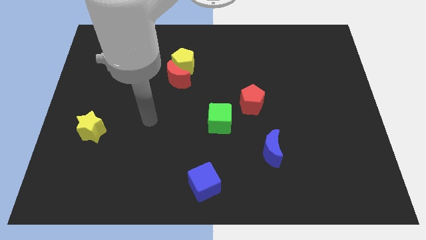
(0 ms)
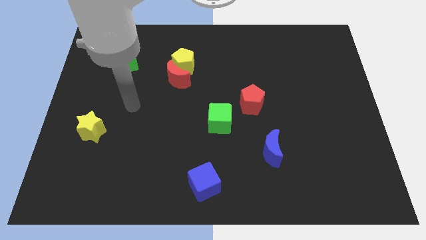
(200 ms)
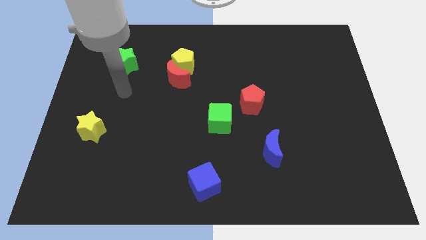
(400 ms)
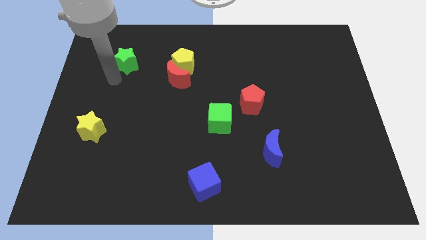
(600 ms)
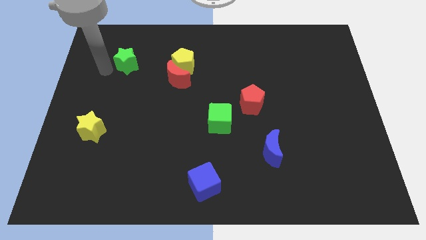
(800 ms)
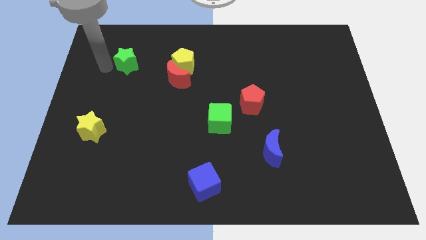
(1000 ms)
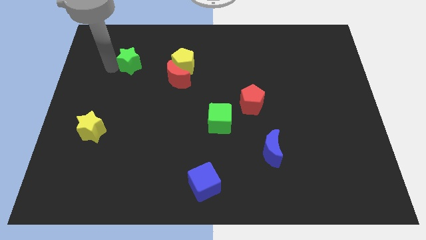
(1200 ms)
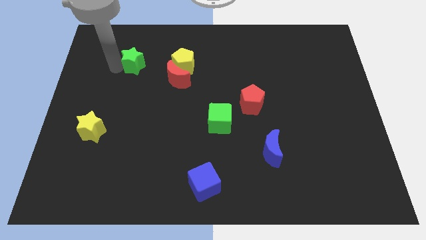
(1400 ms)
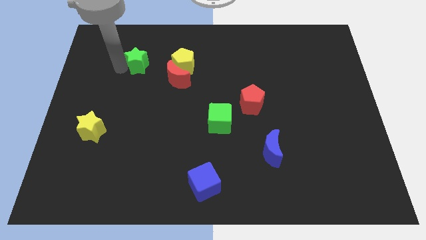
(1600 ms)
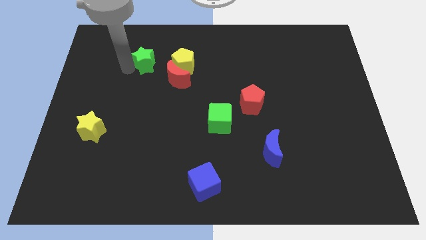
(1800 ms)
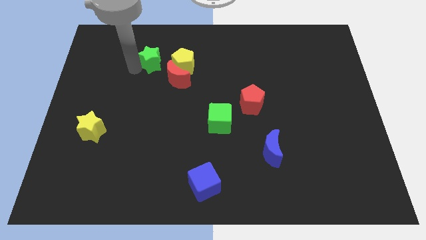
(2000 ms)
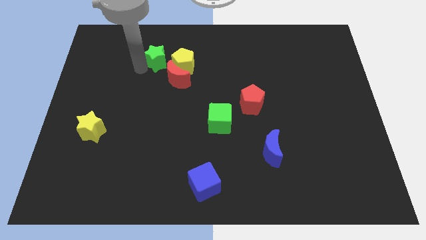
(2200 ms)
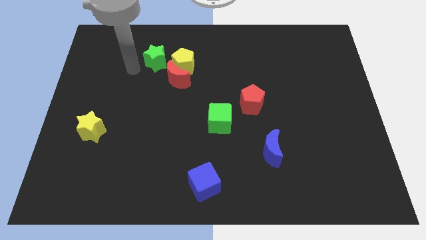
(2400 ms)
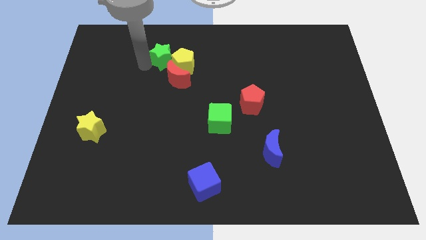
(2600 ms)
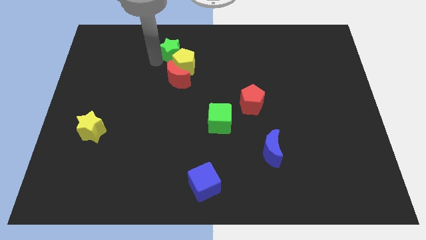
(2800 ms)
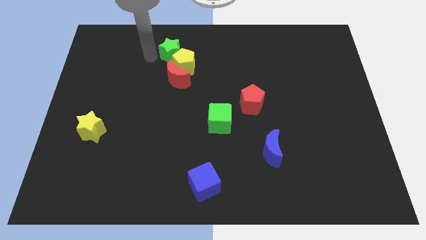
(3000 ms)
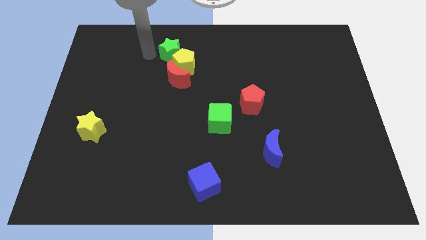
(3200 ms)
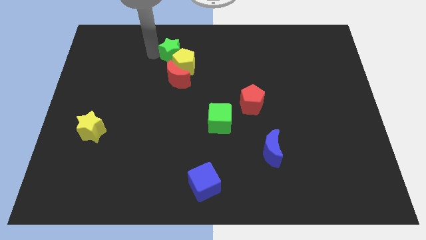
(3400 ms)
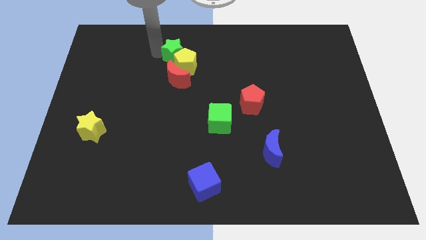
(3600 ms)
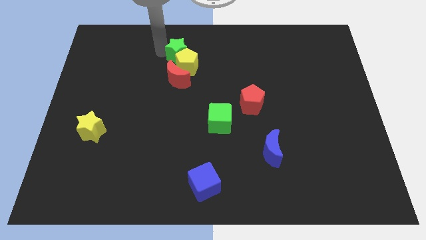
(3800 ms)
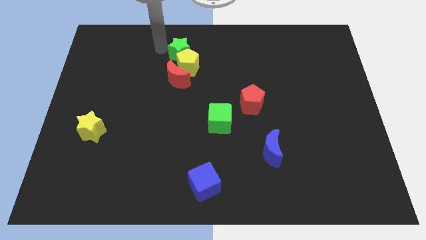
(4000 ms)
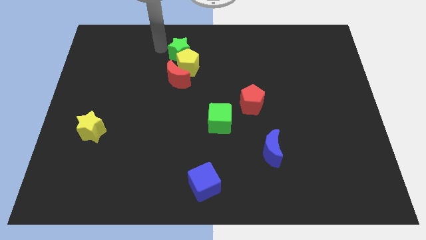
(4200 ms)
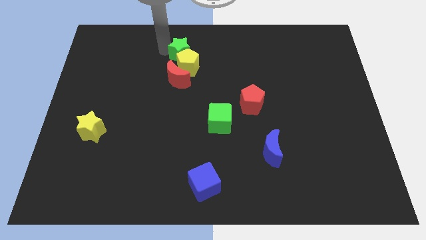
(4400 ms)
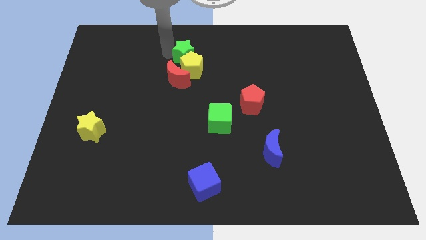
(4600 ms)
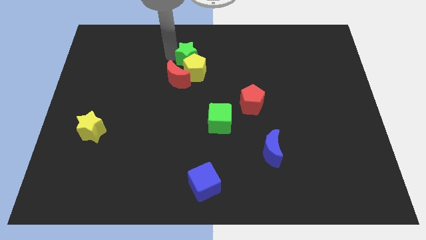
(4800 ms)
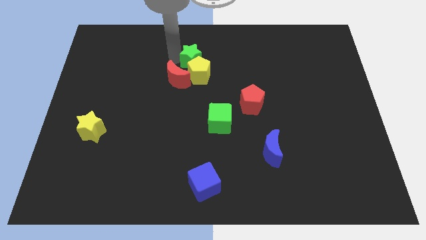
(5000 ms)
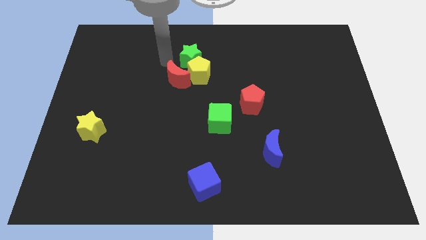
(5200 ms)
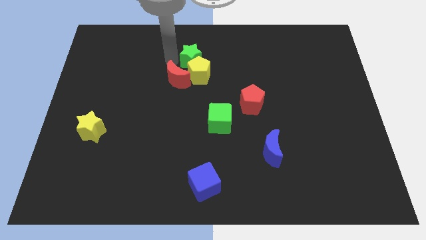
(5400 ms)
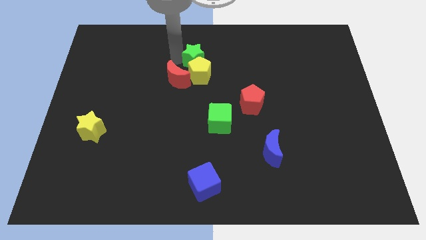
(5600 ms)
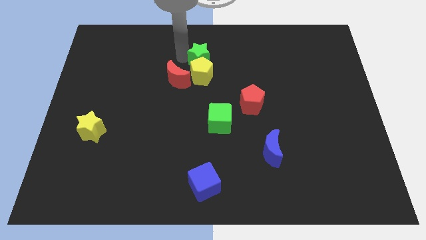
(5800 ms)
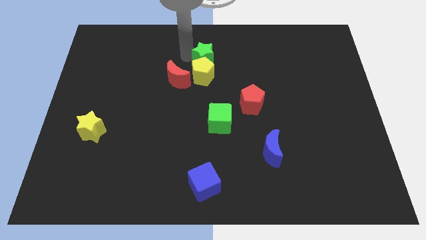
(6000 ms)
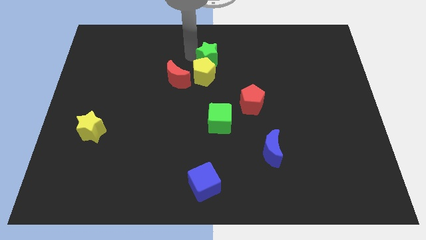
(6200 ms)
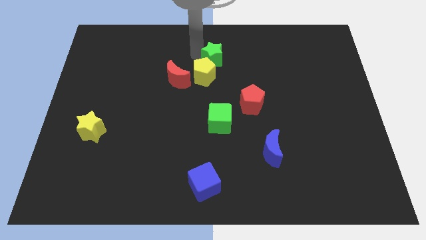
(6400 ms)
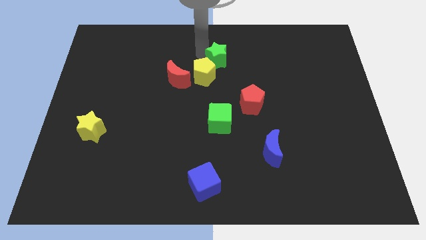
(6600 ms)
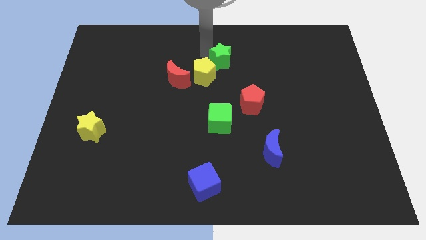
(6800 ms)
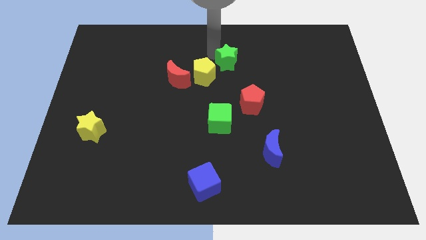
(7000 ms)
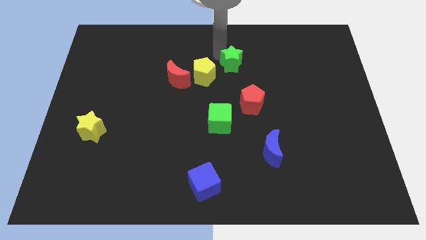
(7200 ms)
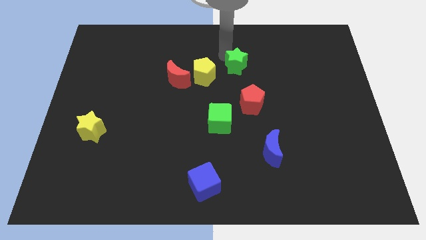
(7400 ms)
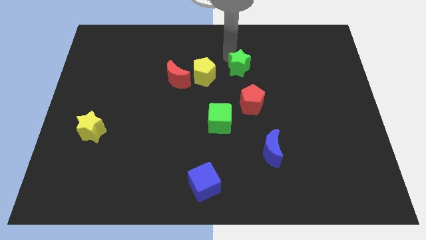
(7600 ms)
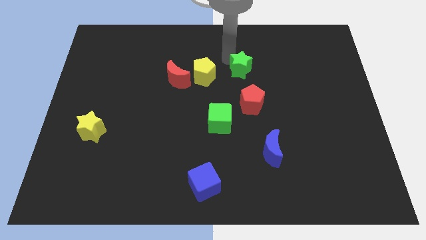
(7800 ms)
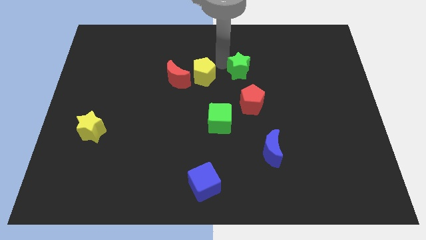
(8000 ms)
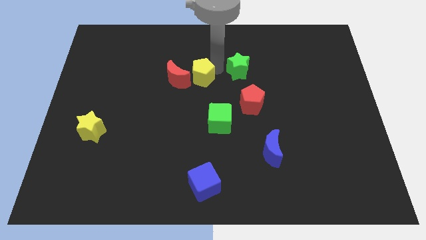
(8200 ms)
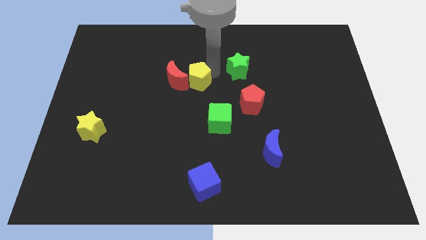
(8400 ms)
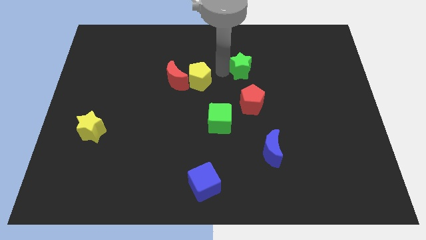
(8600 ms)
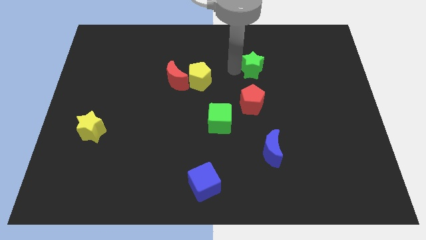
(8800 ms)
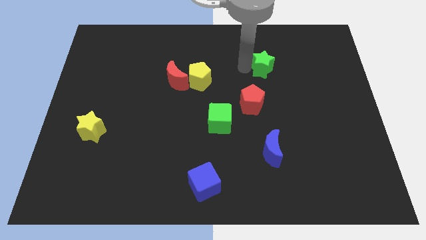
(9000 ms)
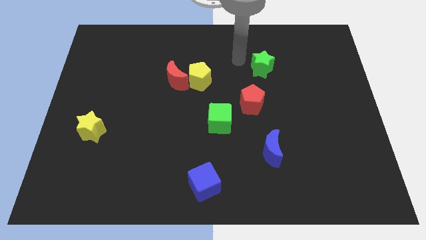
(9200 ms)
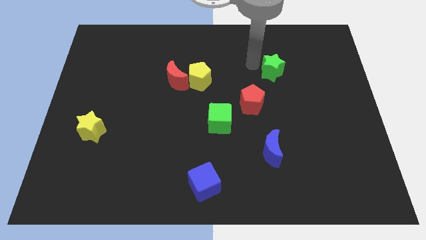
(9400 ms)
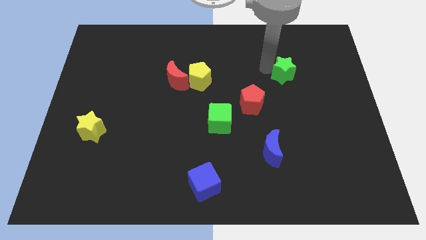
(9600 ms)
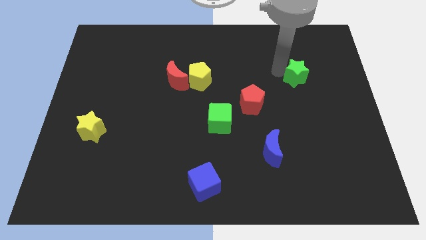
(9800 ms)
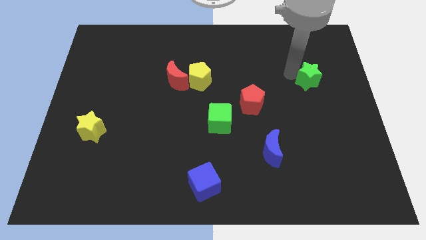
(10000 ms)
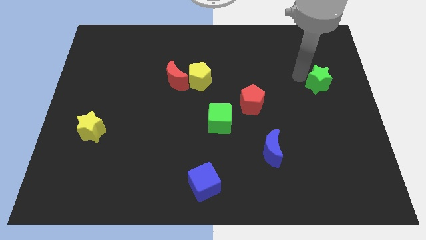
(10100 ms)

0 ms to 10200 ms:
put the green star to the right side of the board

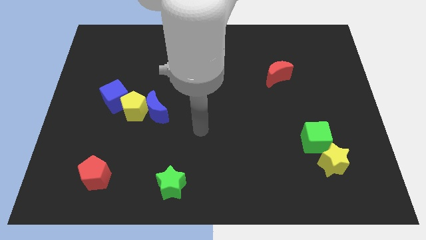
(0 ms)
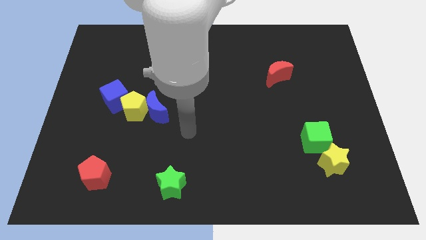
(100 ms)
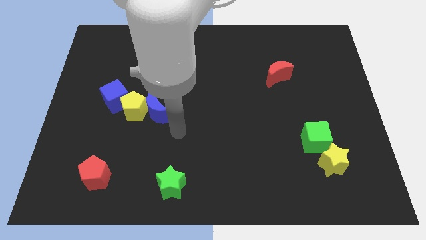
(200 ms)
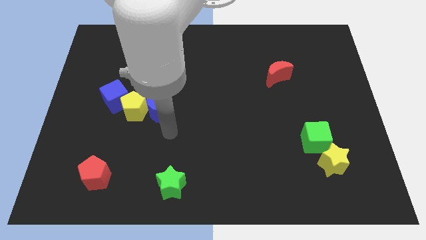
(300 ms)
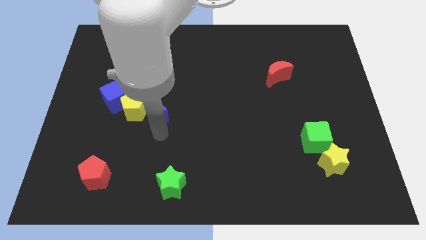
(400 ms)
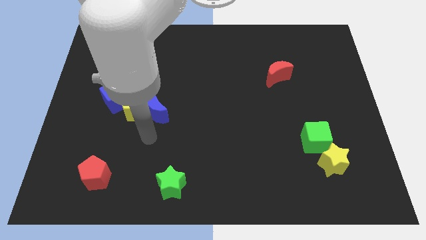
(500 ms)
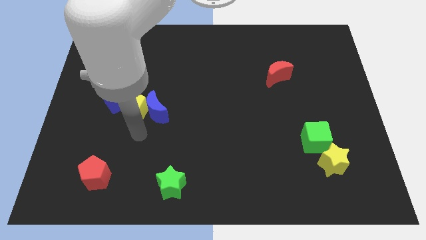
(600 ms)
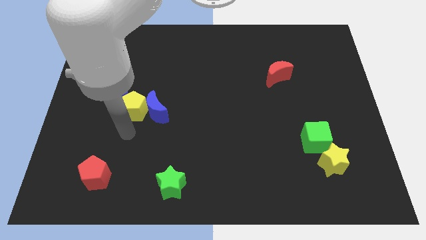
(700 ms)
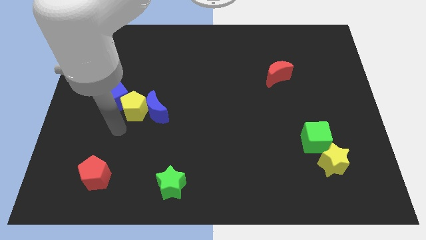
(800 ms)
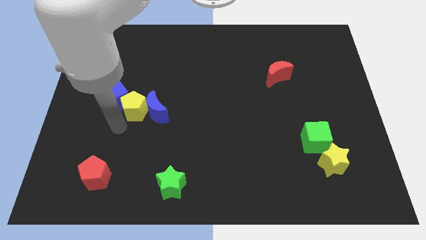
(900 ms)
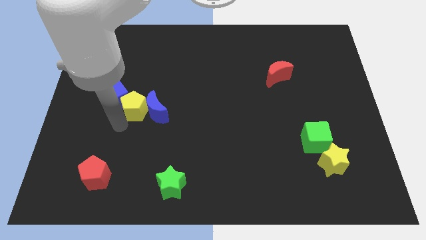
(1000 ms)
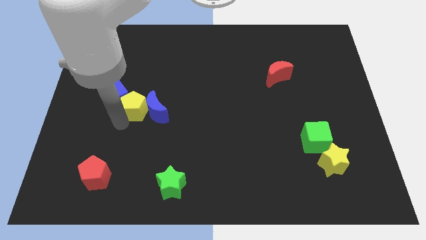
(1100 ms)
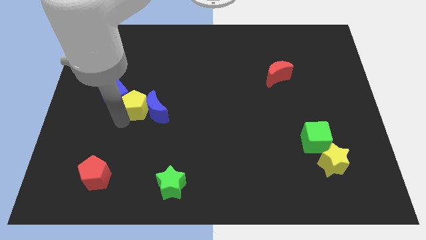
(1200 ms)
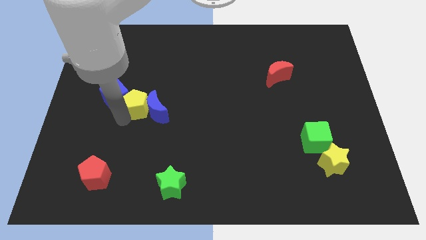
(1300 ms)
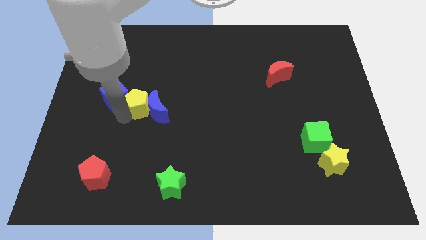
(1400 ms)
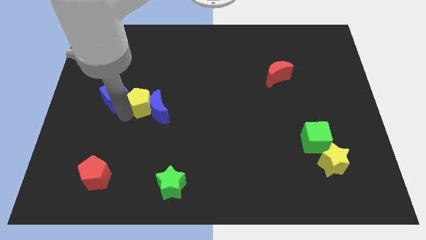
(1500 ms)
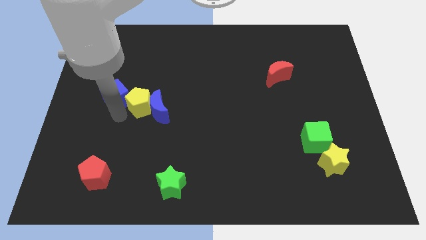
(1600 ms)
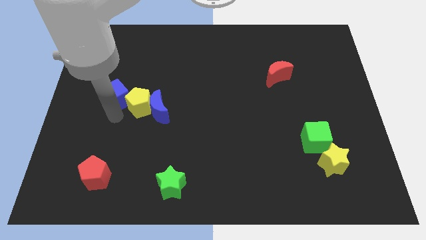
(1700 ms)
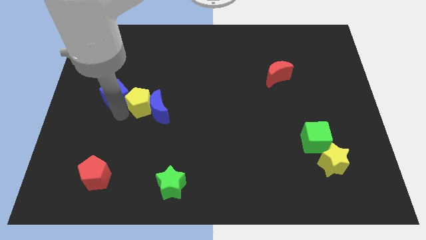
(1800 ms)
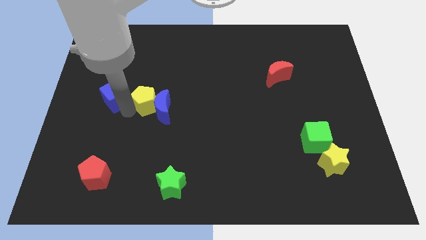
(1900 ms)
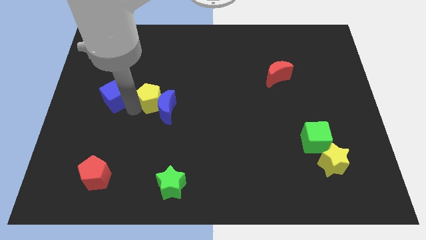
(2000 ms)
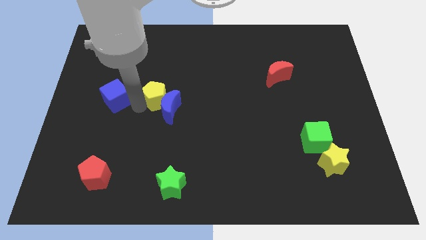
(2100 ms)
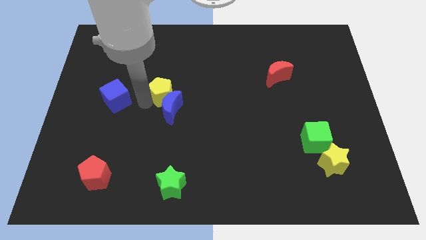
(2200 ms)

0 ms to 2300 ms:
push the yellow pentagon to the center
